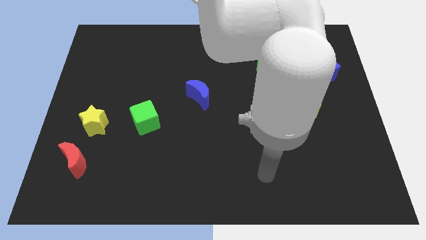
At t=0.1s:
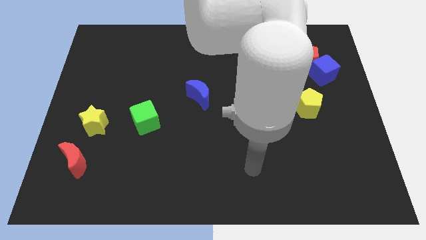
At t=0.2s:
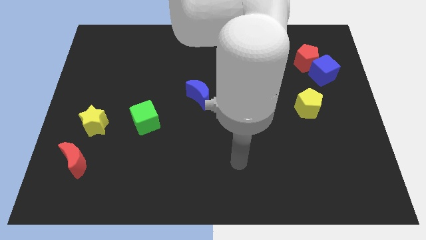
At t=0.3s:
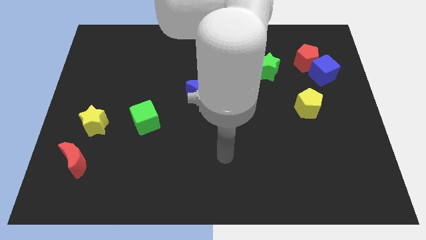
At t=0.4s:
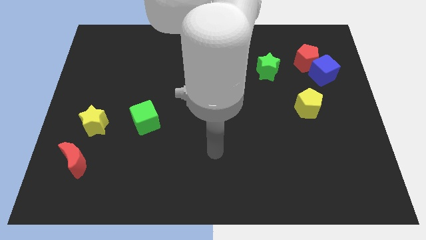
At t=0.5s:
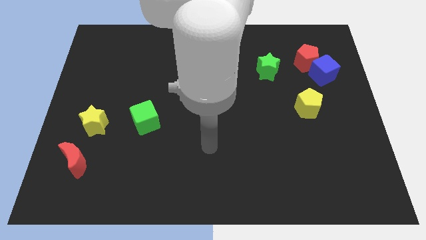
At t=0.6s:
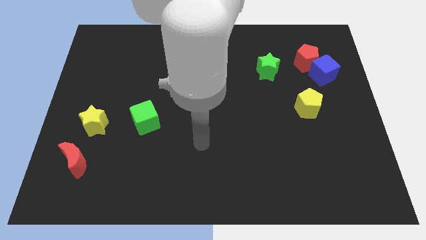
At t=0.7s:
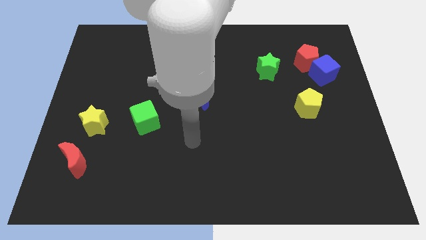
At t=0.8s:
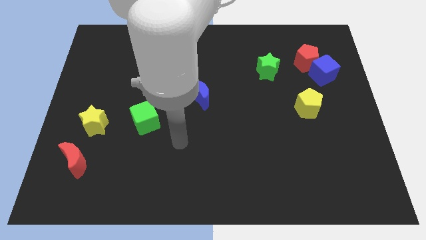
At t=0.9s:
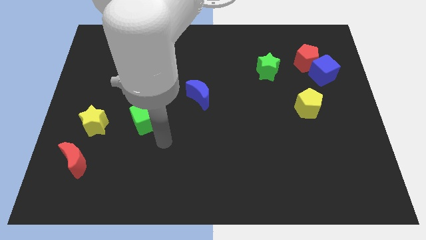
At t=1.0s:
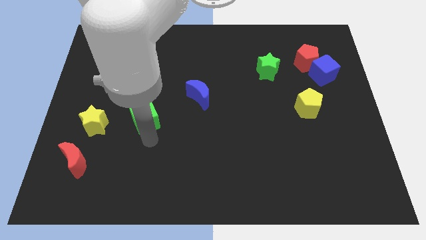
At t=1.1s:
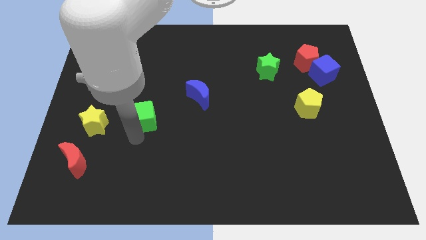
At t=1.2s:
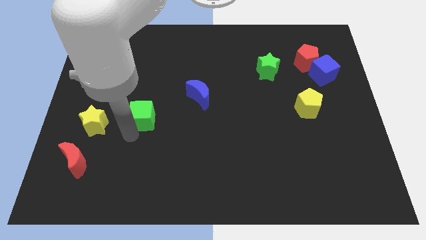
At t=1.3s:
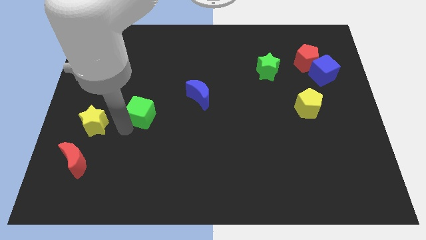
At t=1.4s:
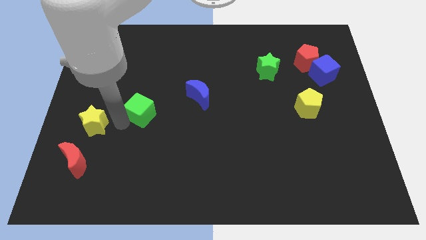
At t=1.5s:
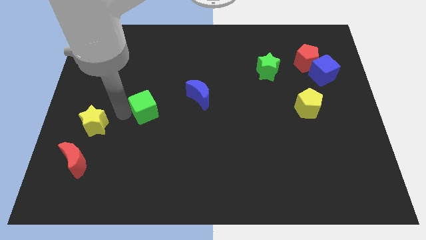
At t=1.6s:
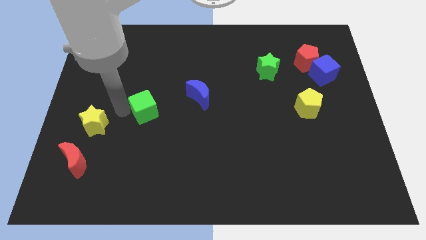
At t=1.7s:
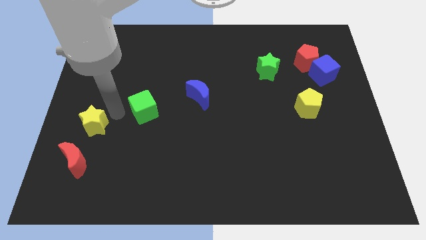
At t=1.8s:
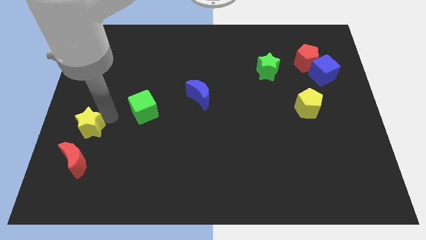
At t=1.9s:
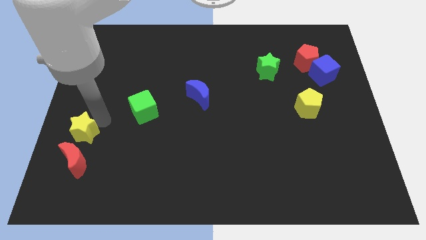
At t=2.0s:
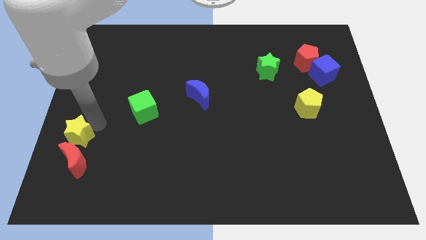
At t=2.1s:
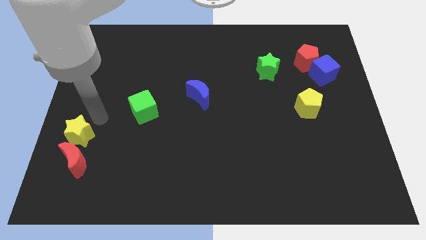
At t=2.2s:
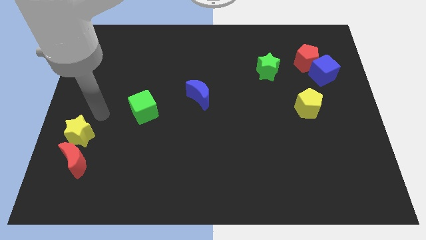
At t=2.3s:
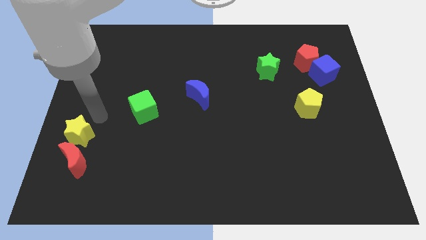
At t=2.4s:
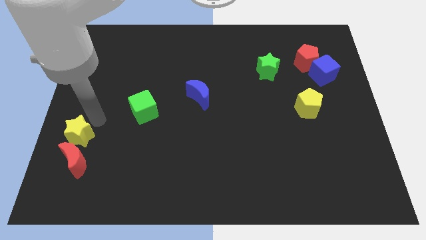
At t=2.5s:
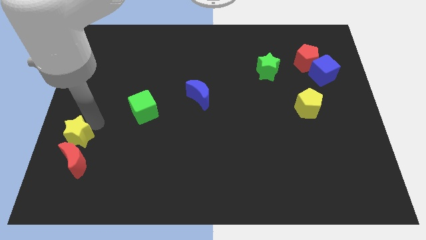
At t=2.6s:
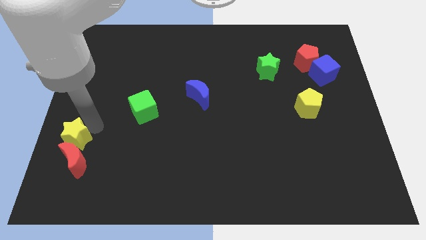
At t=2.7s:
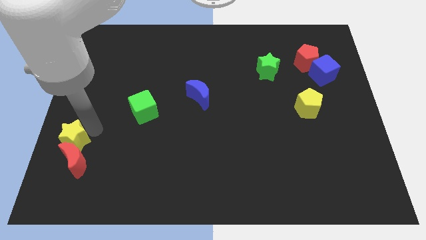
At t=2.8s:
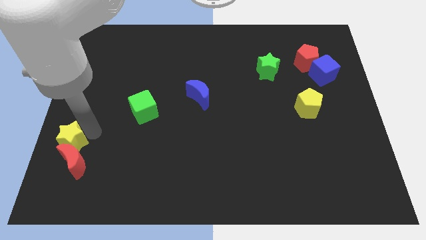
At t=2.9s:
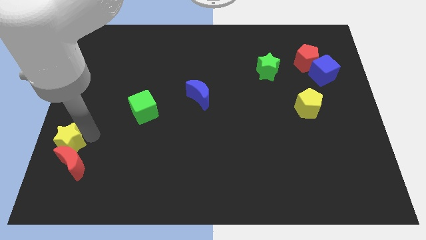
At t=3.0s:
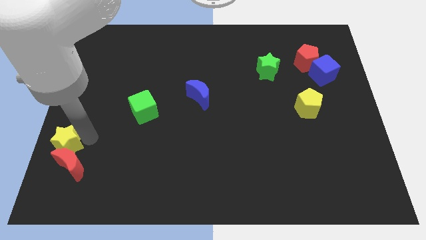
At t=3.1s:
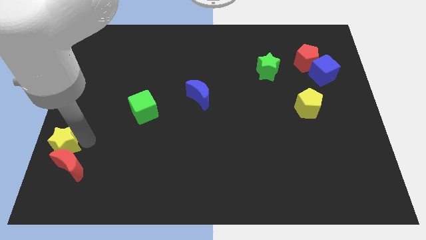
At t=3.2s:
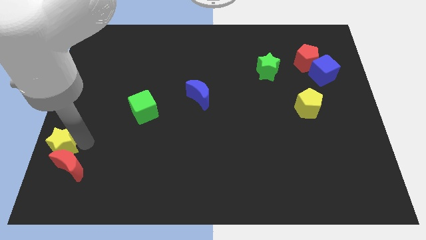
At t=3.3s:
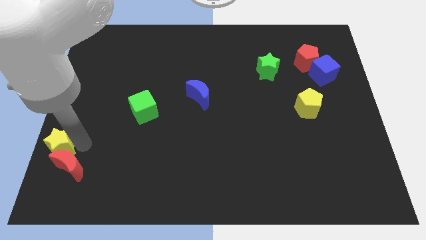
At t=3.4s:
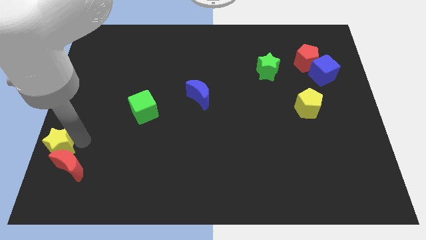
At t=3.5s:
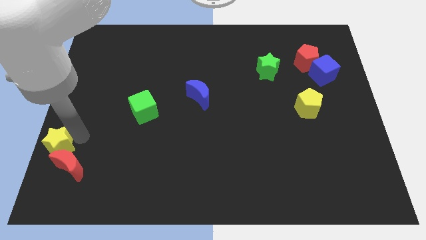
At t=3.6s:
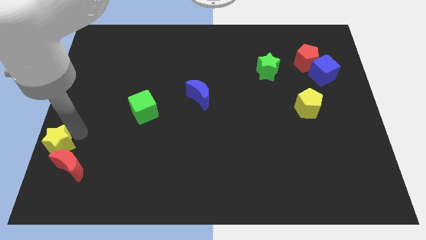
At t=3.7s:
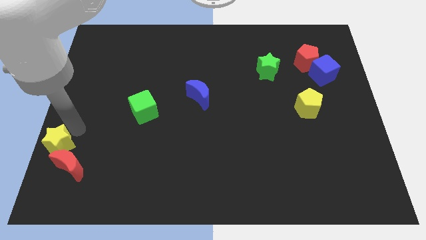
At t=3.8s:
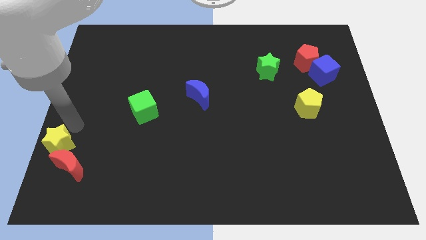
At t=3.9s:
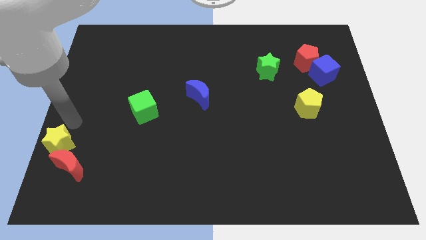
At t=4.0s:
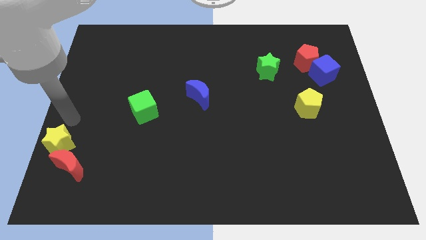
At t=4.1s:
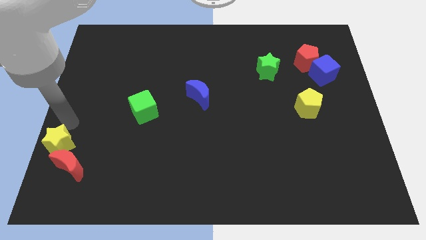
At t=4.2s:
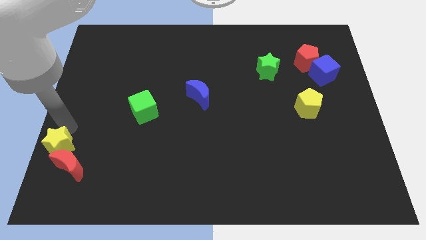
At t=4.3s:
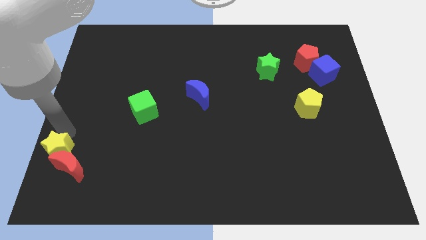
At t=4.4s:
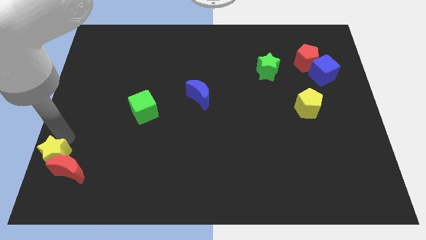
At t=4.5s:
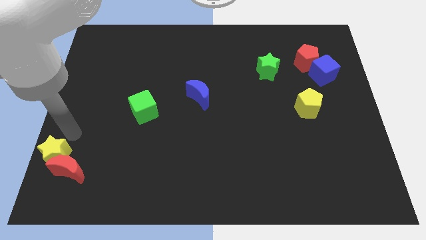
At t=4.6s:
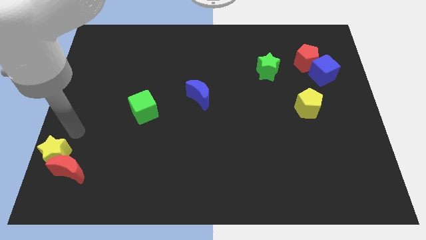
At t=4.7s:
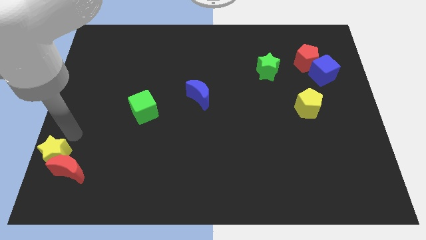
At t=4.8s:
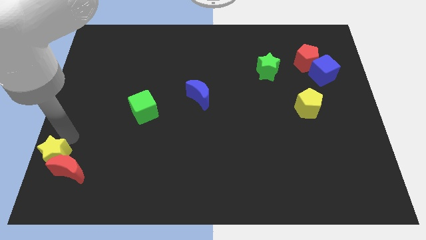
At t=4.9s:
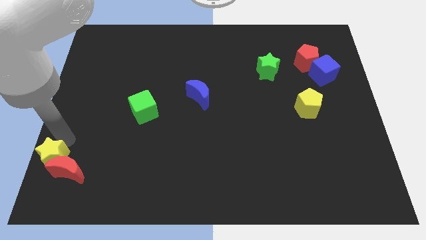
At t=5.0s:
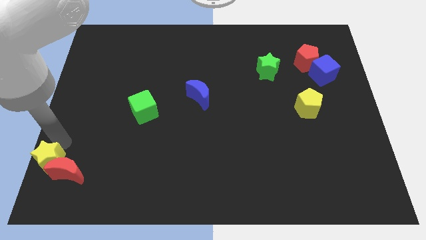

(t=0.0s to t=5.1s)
move the yellow star to the bottom left

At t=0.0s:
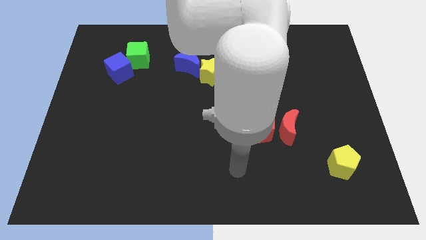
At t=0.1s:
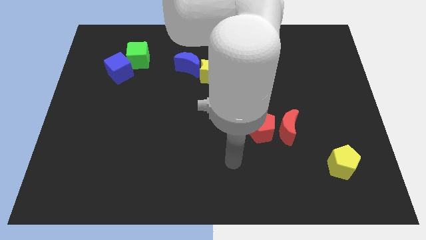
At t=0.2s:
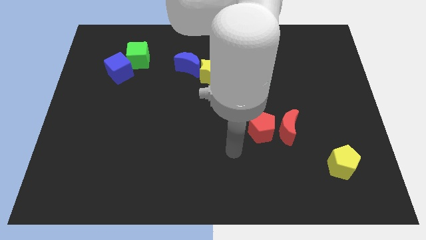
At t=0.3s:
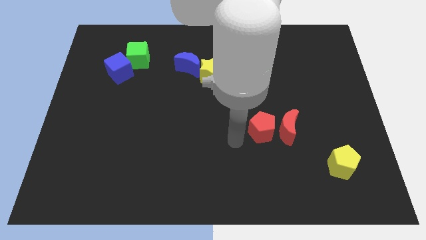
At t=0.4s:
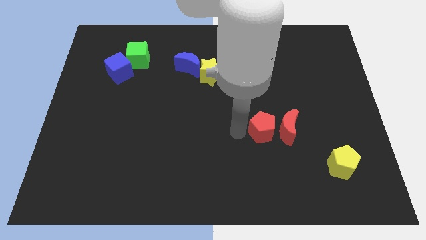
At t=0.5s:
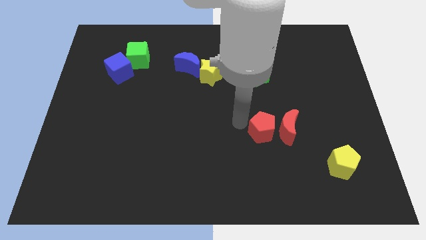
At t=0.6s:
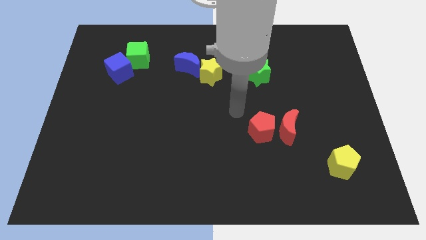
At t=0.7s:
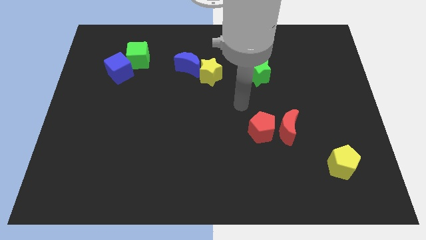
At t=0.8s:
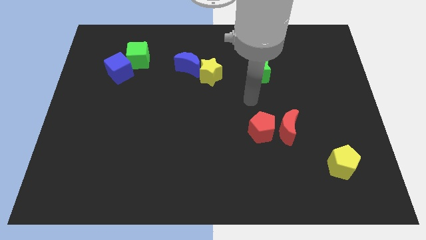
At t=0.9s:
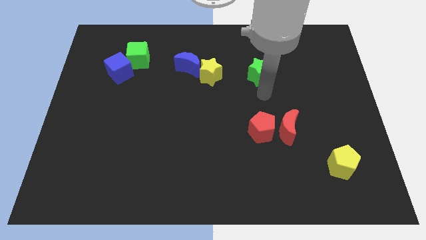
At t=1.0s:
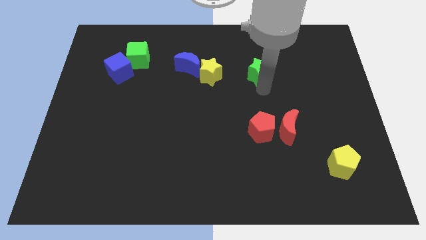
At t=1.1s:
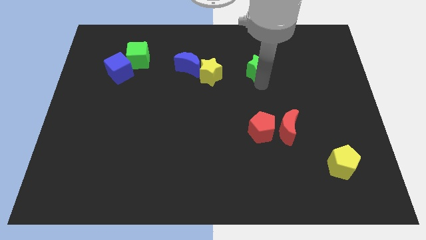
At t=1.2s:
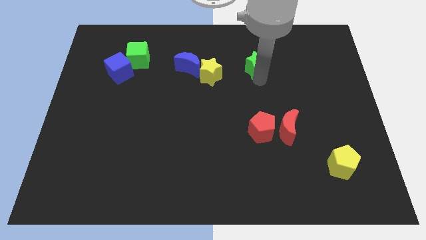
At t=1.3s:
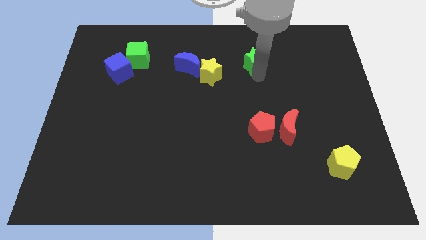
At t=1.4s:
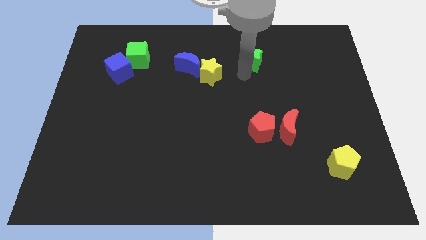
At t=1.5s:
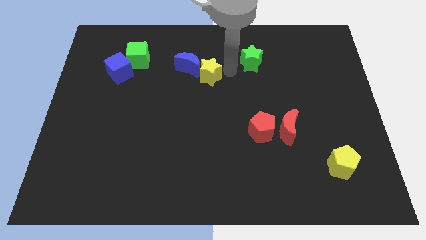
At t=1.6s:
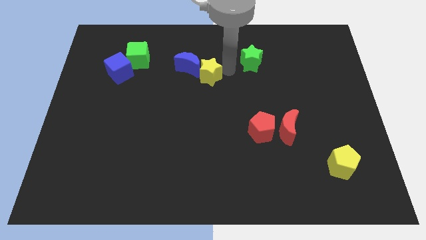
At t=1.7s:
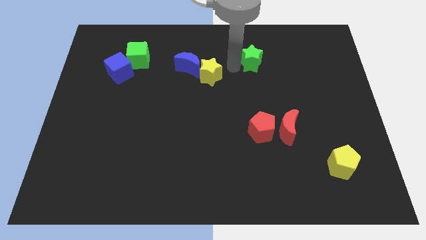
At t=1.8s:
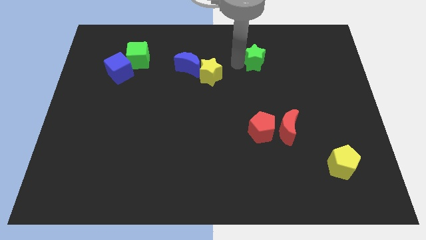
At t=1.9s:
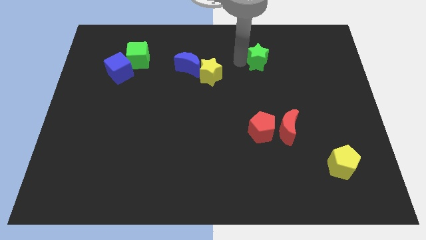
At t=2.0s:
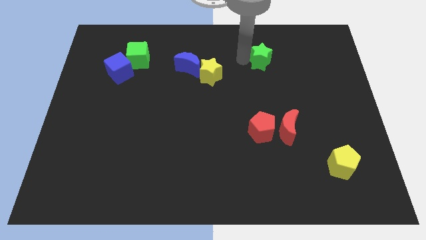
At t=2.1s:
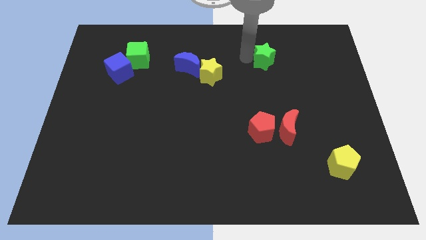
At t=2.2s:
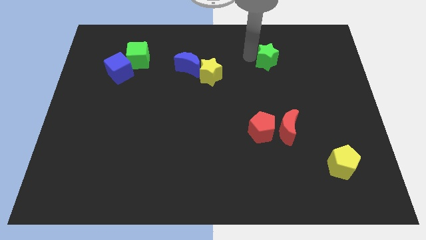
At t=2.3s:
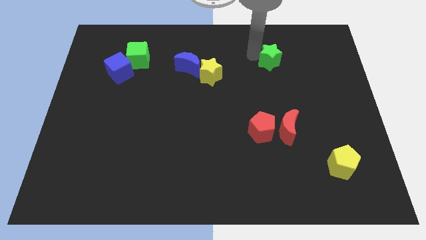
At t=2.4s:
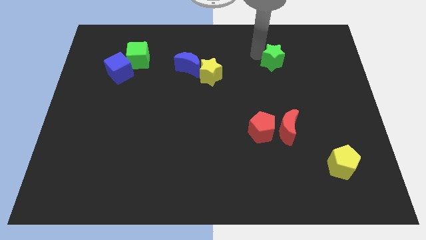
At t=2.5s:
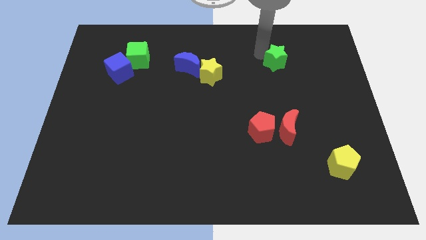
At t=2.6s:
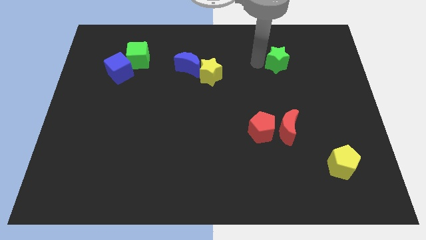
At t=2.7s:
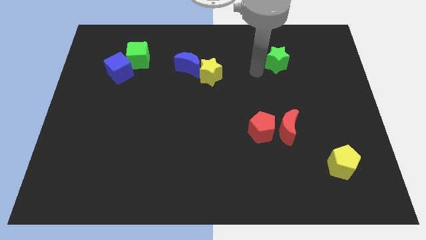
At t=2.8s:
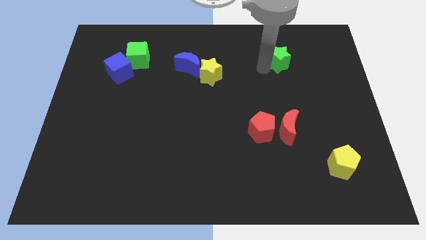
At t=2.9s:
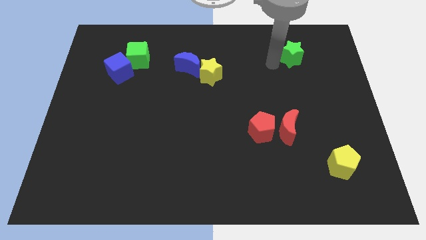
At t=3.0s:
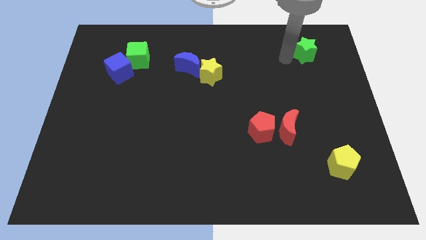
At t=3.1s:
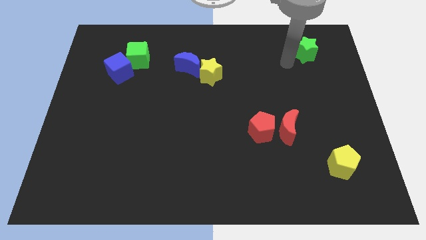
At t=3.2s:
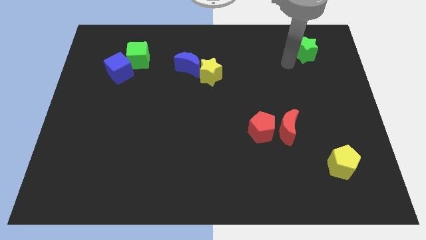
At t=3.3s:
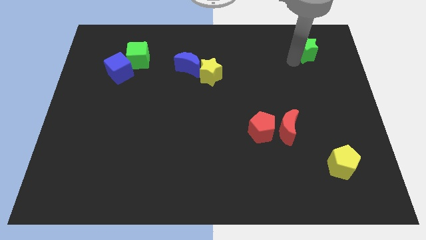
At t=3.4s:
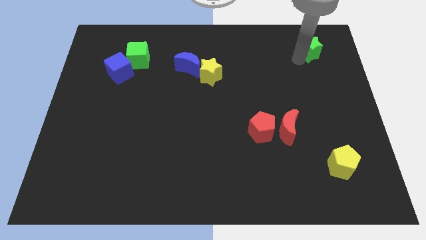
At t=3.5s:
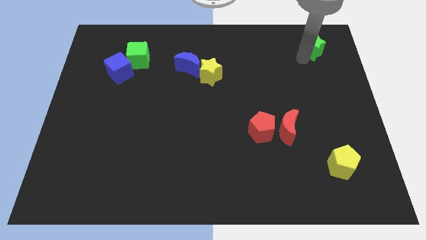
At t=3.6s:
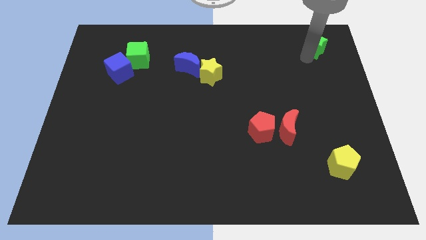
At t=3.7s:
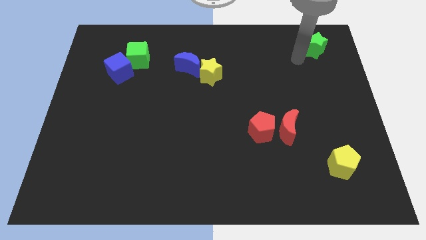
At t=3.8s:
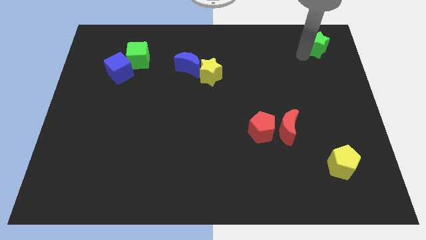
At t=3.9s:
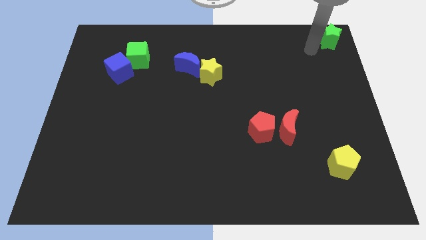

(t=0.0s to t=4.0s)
push the green star to the top right of the board
